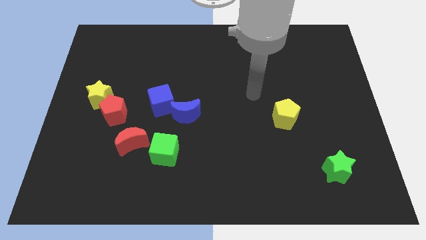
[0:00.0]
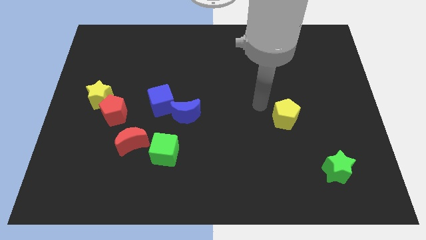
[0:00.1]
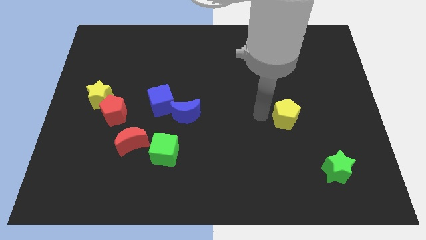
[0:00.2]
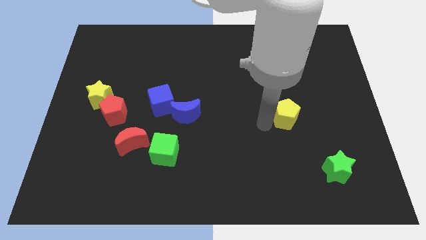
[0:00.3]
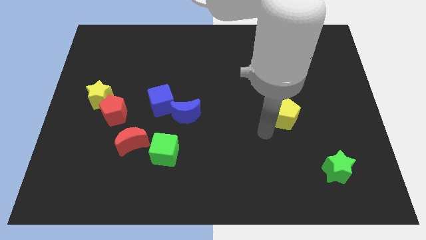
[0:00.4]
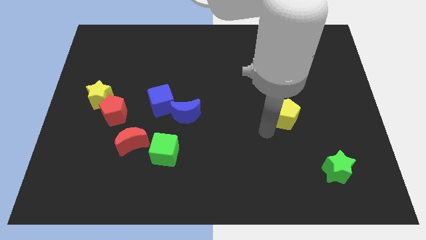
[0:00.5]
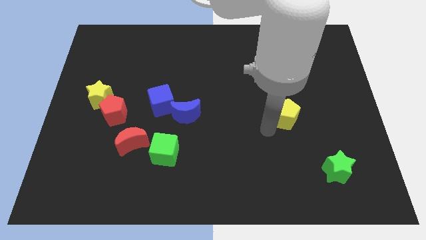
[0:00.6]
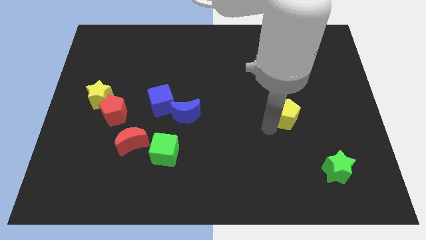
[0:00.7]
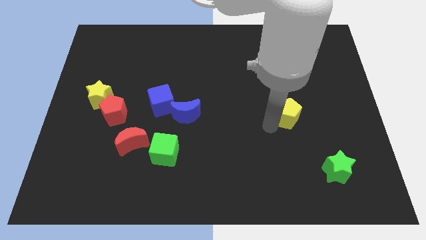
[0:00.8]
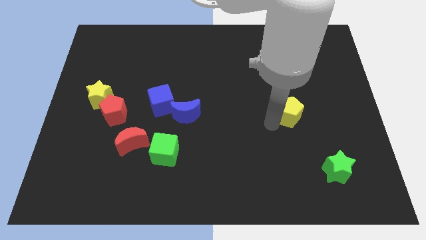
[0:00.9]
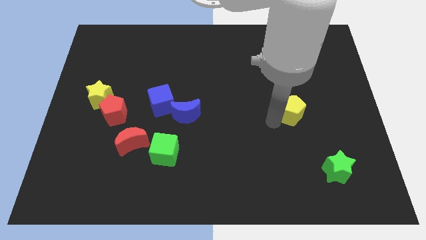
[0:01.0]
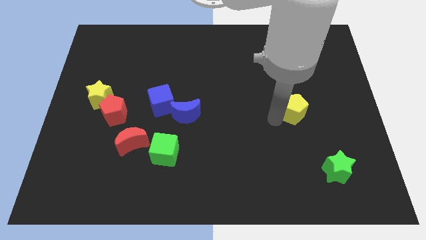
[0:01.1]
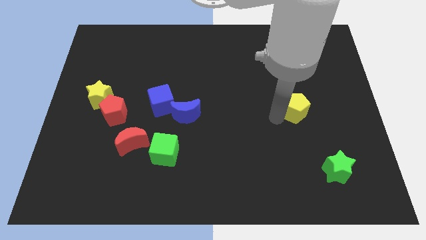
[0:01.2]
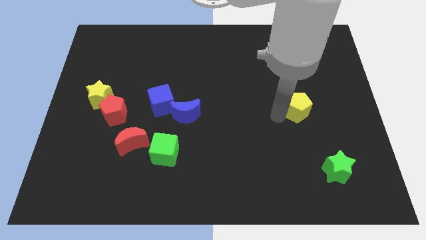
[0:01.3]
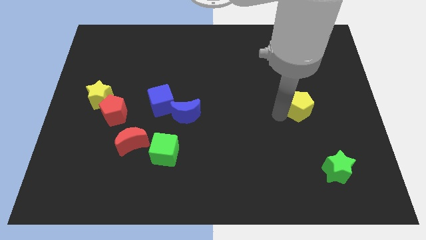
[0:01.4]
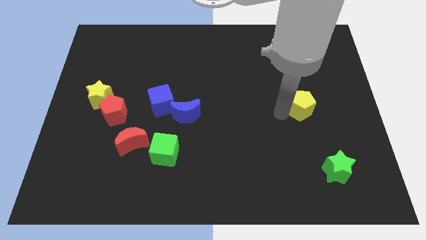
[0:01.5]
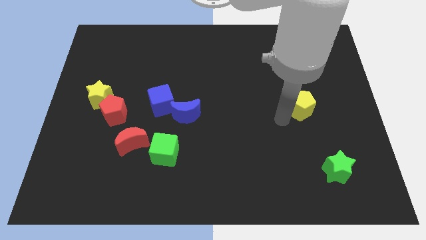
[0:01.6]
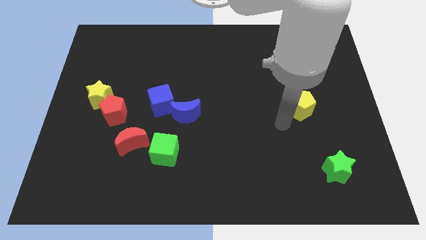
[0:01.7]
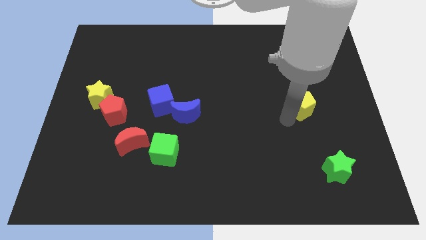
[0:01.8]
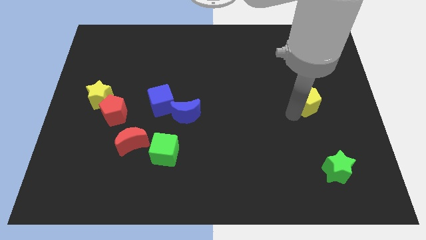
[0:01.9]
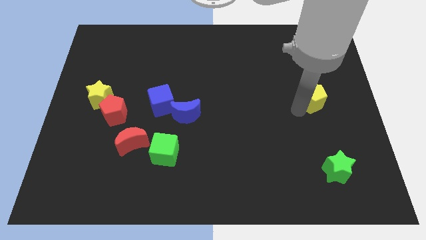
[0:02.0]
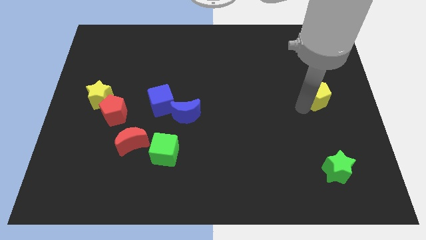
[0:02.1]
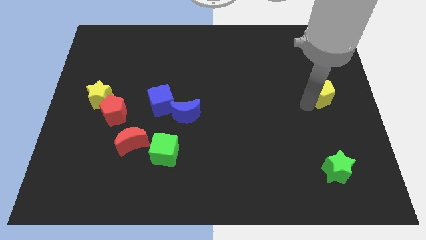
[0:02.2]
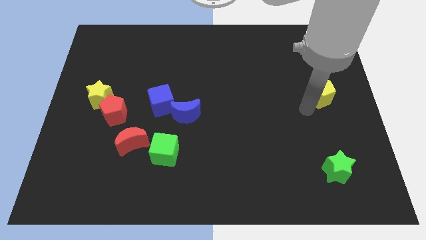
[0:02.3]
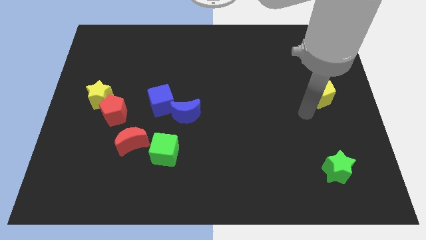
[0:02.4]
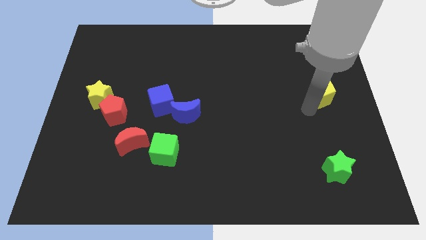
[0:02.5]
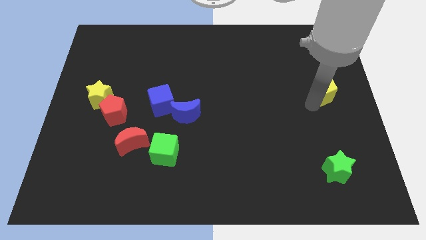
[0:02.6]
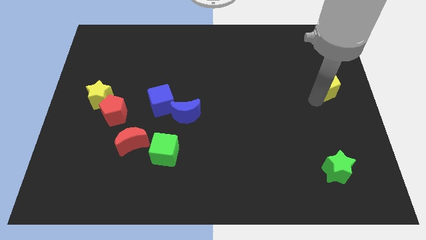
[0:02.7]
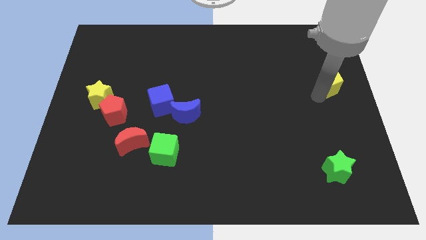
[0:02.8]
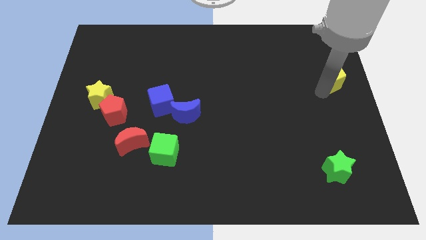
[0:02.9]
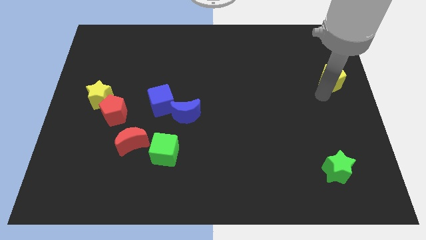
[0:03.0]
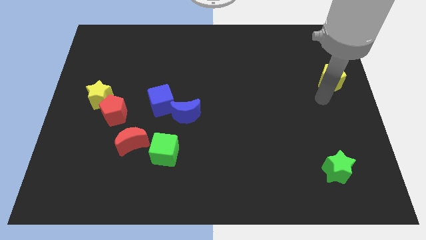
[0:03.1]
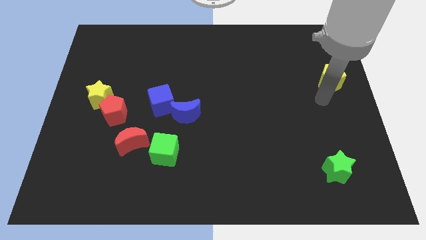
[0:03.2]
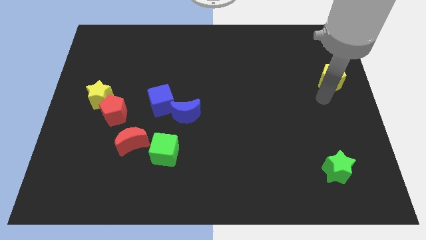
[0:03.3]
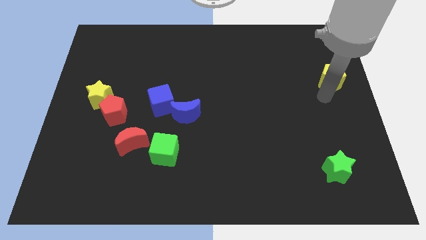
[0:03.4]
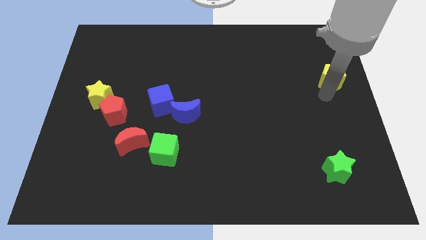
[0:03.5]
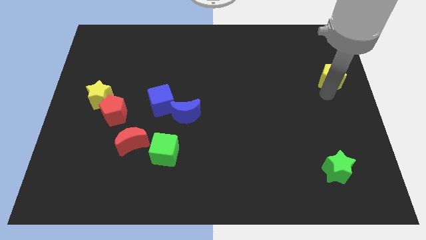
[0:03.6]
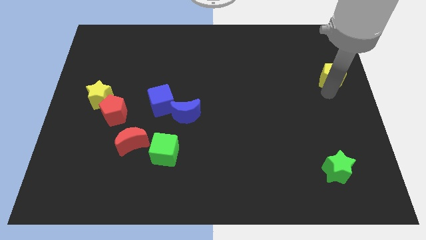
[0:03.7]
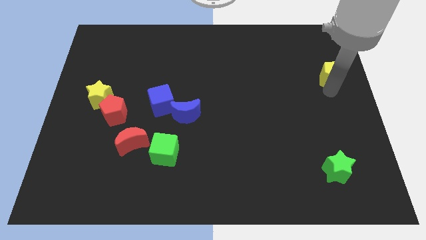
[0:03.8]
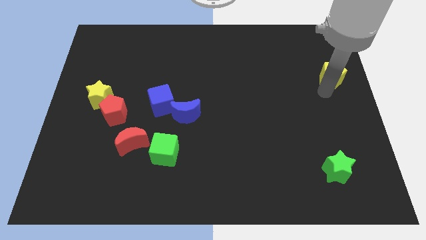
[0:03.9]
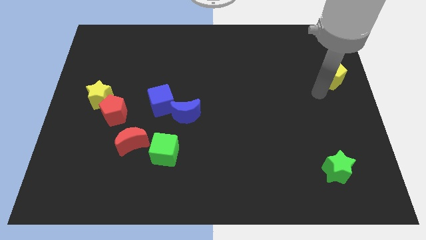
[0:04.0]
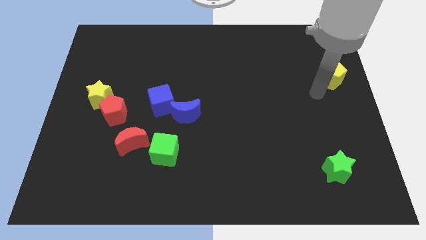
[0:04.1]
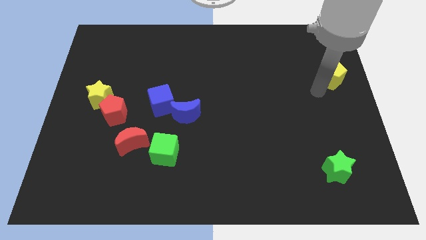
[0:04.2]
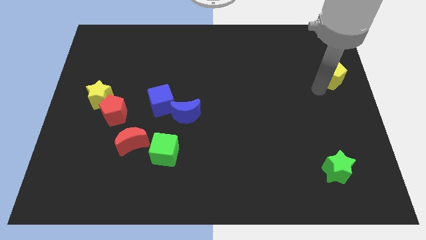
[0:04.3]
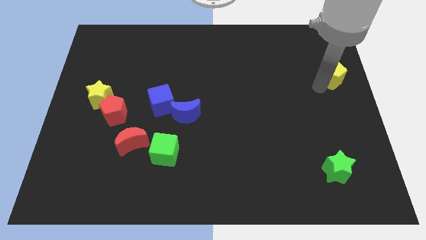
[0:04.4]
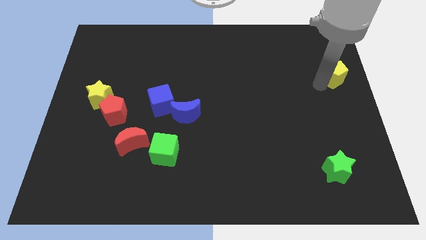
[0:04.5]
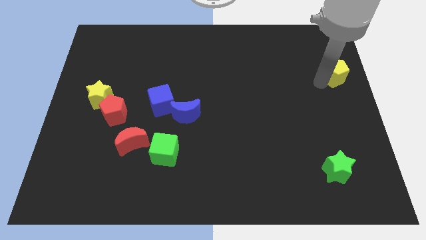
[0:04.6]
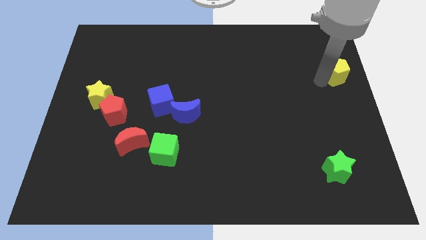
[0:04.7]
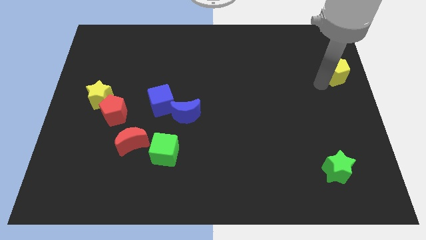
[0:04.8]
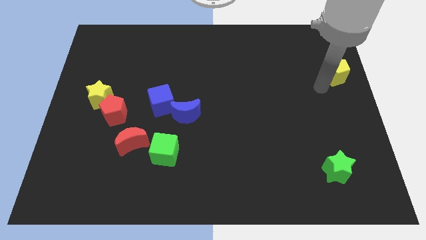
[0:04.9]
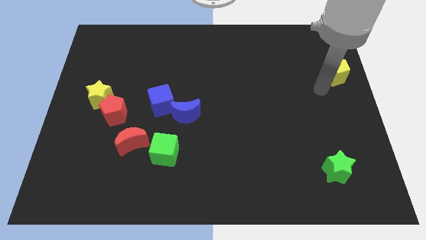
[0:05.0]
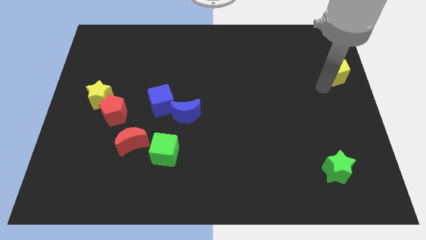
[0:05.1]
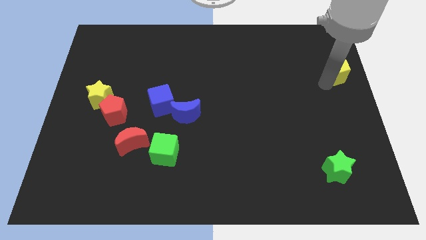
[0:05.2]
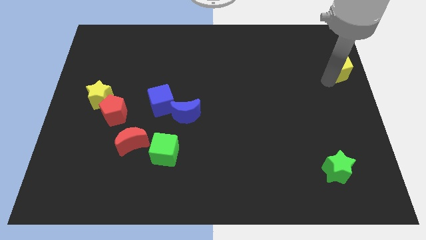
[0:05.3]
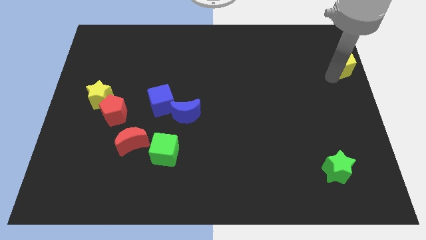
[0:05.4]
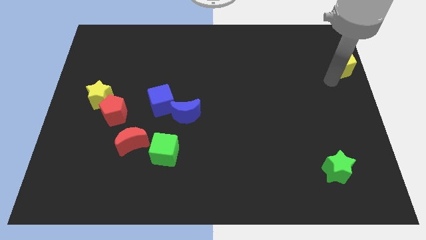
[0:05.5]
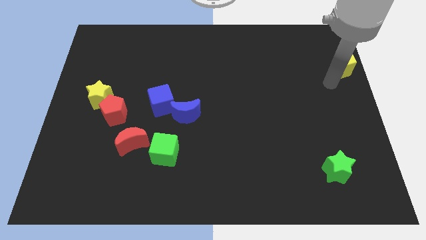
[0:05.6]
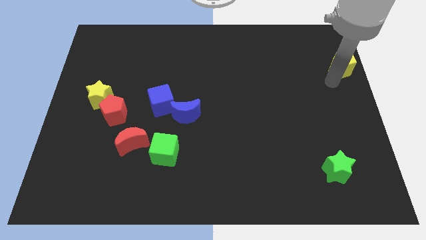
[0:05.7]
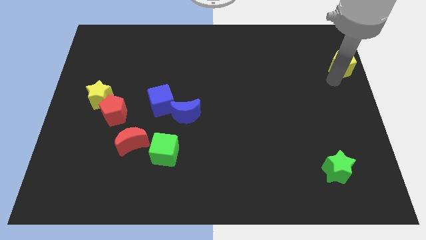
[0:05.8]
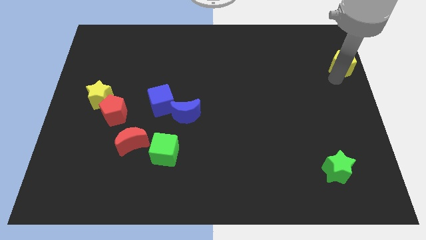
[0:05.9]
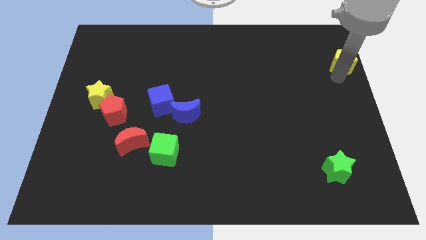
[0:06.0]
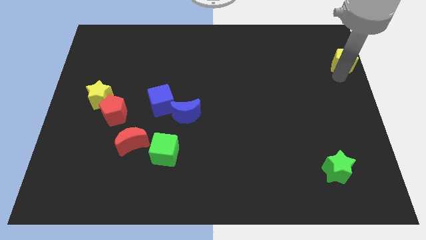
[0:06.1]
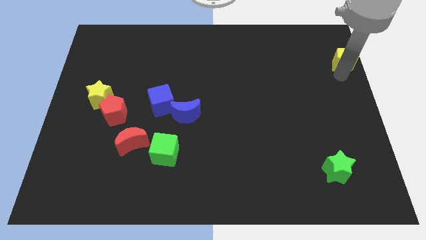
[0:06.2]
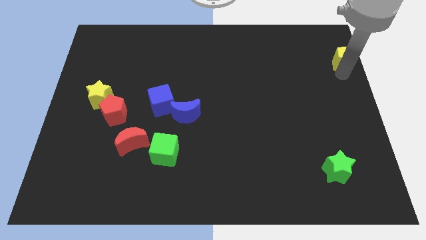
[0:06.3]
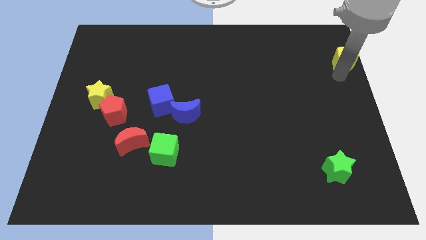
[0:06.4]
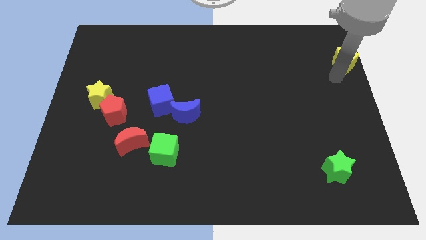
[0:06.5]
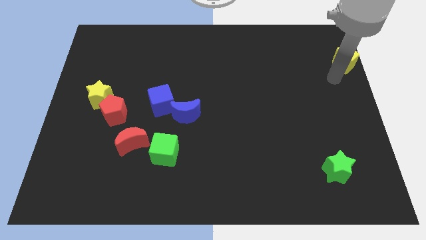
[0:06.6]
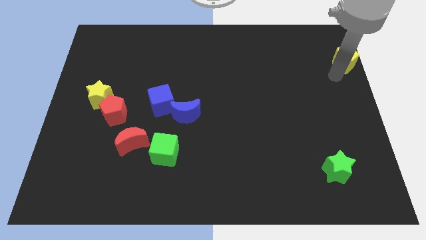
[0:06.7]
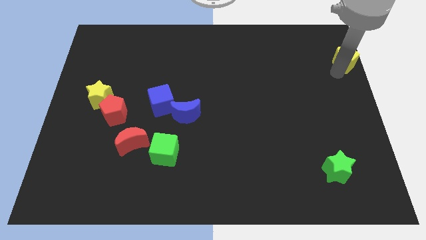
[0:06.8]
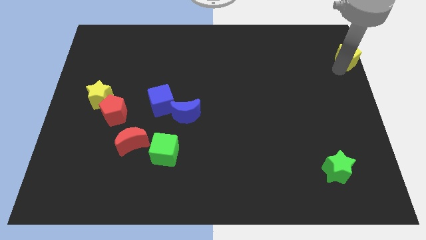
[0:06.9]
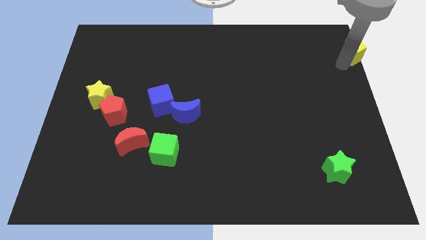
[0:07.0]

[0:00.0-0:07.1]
push the yellow pentagon to the top right
